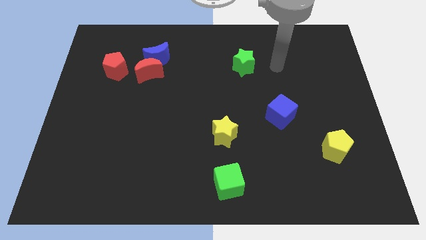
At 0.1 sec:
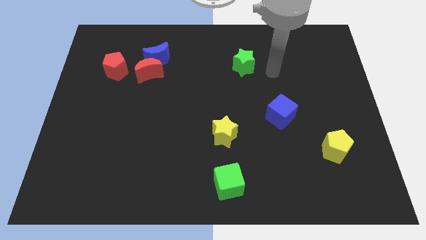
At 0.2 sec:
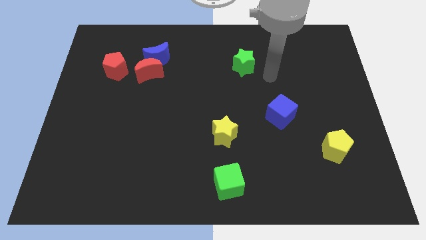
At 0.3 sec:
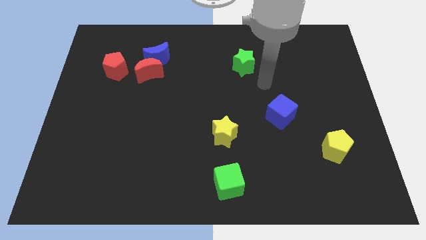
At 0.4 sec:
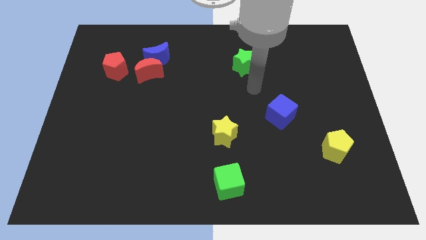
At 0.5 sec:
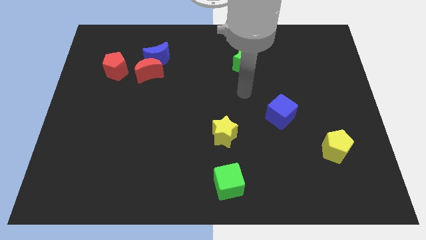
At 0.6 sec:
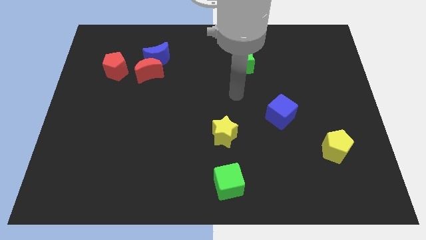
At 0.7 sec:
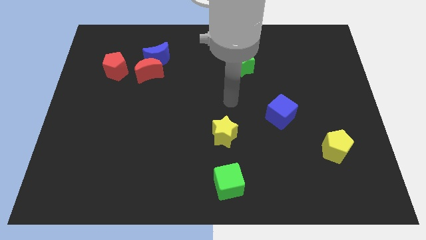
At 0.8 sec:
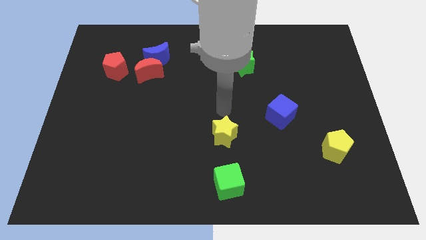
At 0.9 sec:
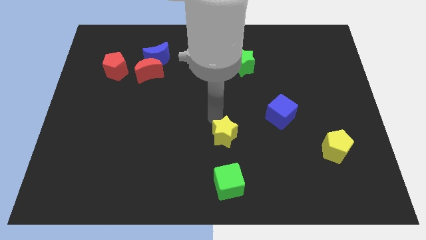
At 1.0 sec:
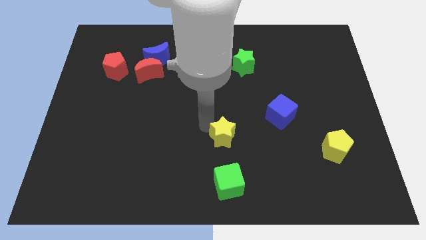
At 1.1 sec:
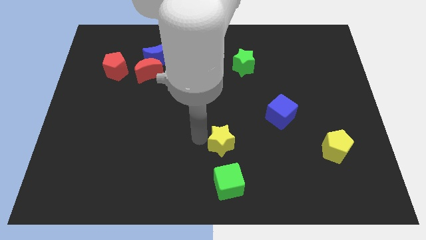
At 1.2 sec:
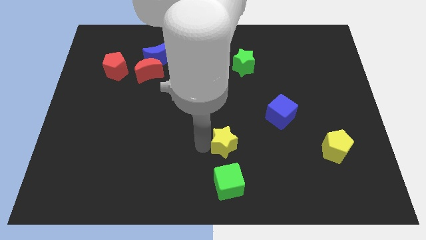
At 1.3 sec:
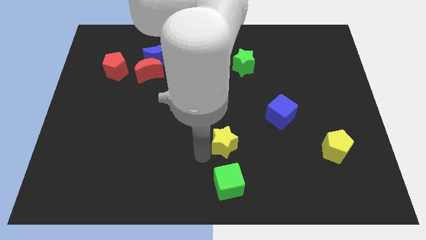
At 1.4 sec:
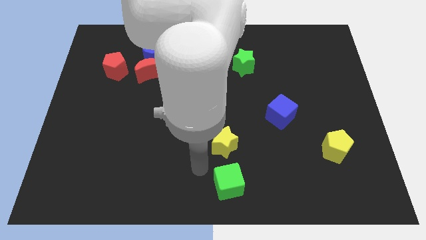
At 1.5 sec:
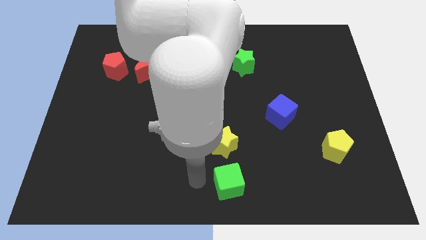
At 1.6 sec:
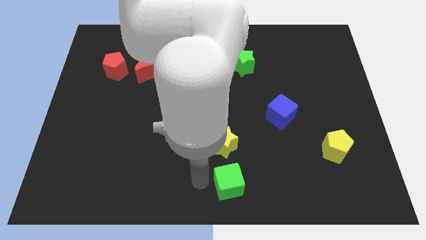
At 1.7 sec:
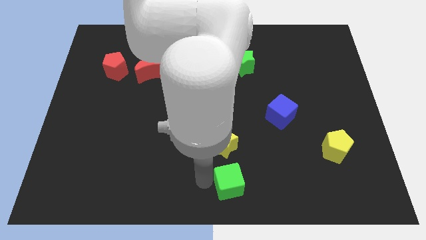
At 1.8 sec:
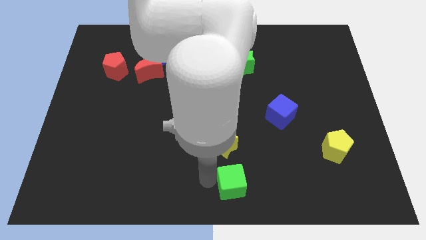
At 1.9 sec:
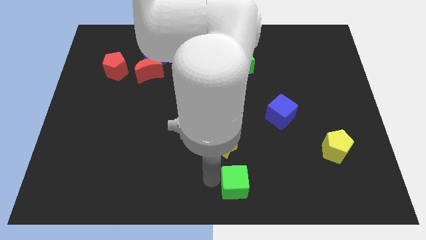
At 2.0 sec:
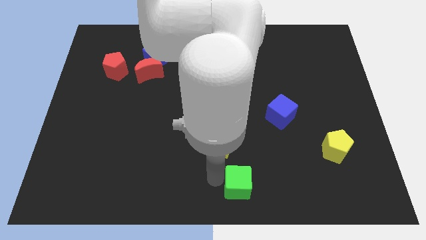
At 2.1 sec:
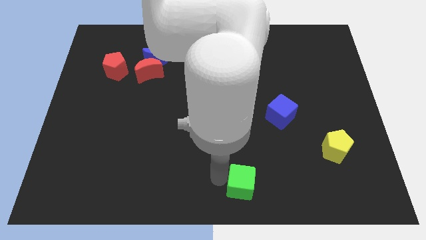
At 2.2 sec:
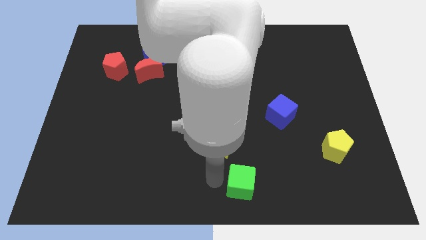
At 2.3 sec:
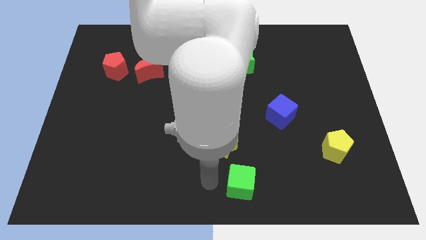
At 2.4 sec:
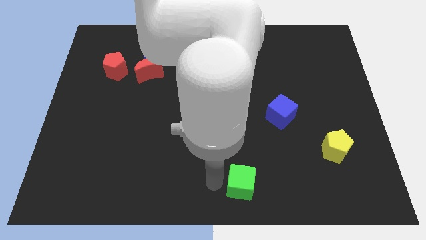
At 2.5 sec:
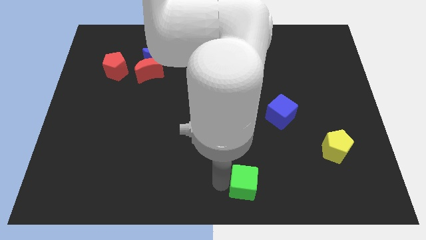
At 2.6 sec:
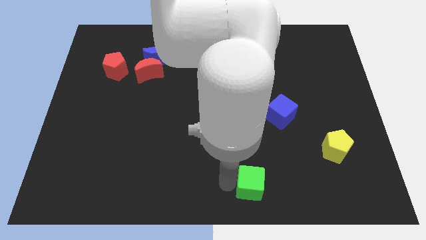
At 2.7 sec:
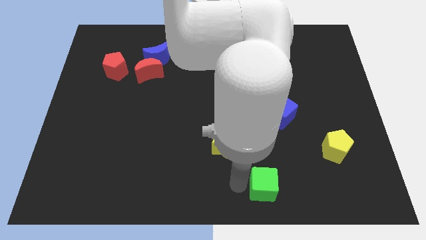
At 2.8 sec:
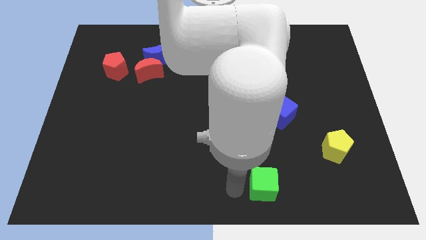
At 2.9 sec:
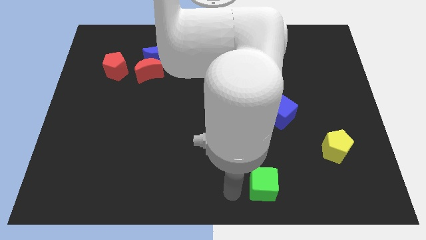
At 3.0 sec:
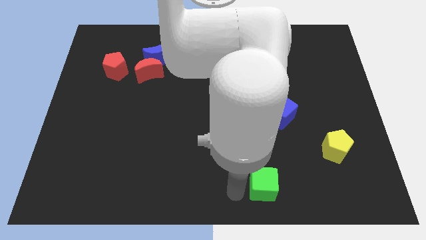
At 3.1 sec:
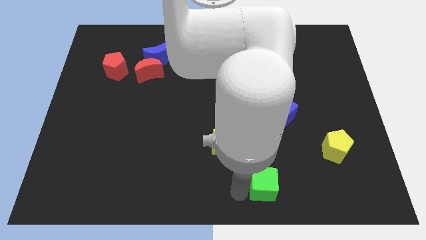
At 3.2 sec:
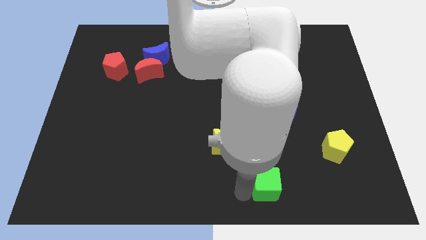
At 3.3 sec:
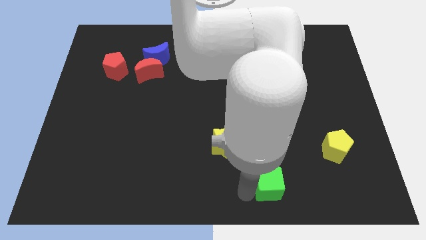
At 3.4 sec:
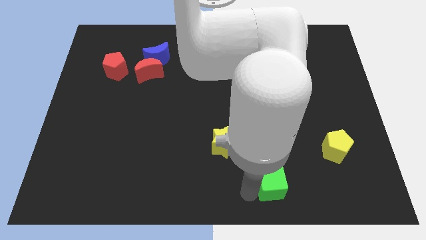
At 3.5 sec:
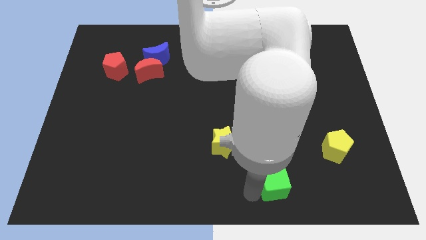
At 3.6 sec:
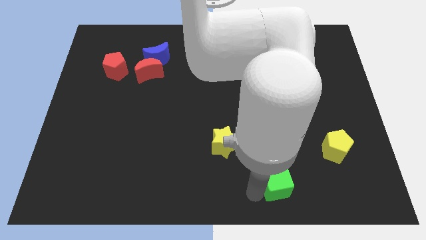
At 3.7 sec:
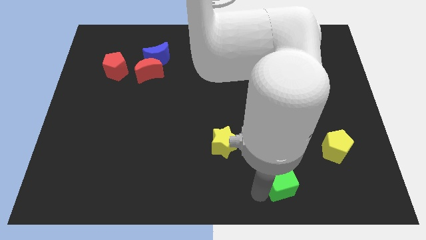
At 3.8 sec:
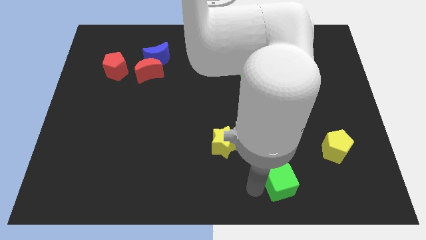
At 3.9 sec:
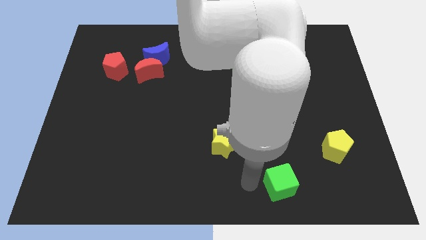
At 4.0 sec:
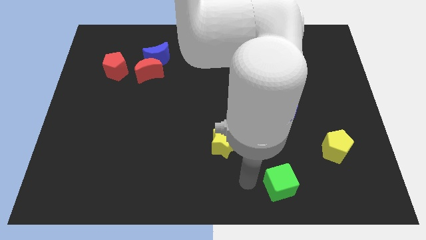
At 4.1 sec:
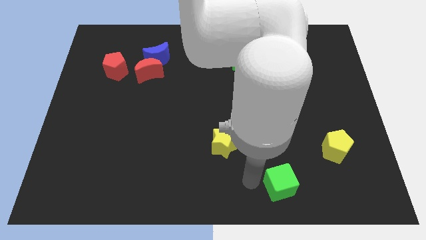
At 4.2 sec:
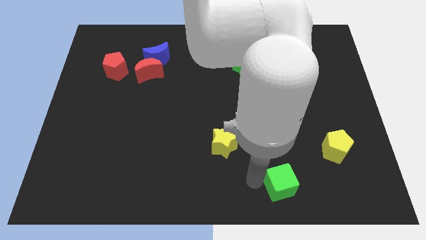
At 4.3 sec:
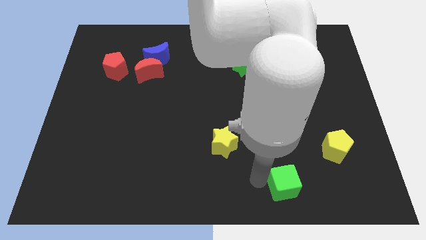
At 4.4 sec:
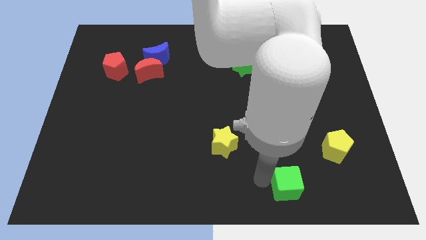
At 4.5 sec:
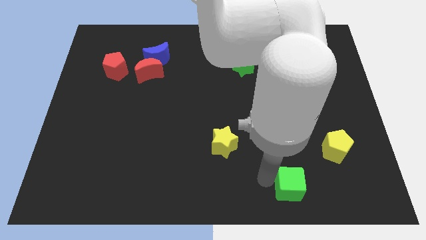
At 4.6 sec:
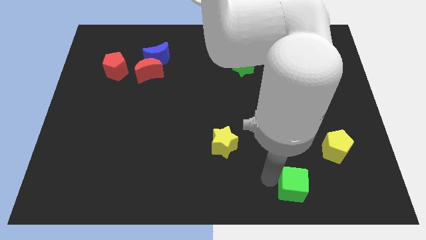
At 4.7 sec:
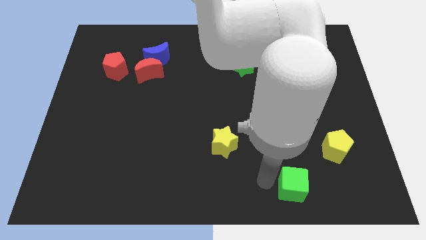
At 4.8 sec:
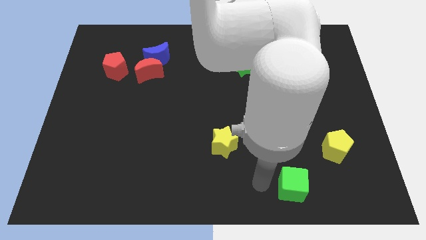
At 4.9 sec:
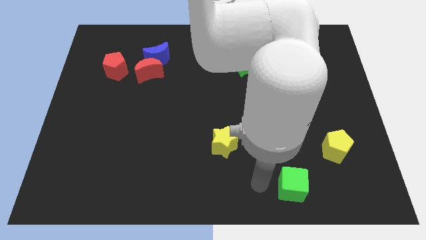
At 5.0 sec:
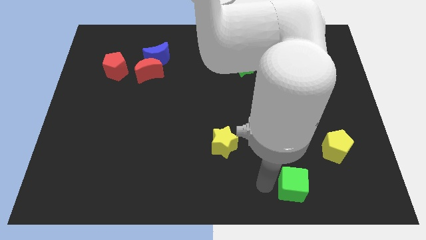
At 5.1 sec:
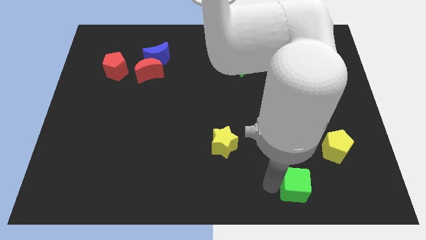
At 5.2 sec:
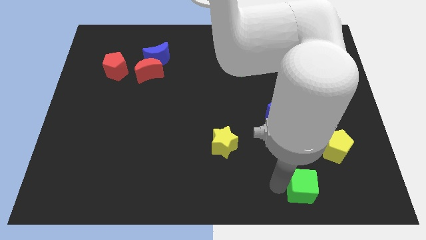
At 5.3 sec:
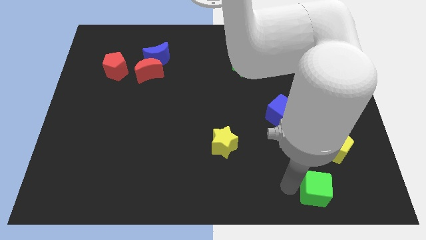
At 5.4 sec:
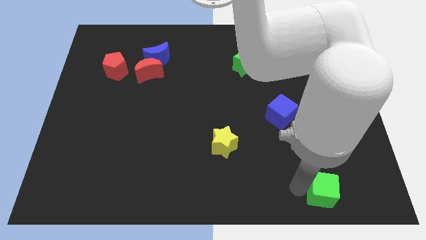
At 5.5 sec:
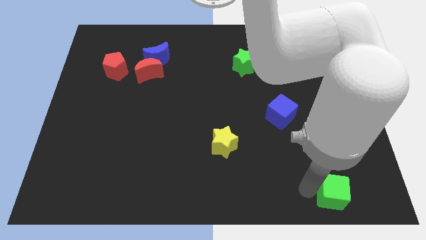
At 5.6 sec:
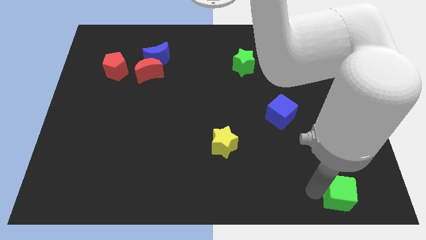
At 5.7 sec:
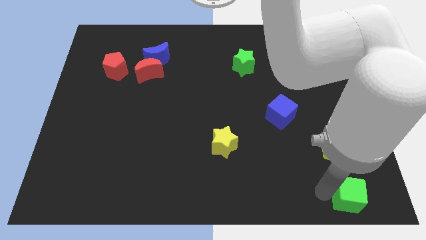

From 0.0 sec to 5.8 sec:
push the green cube to the bottom right
